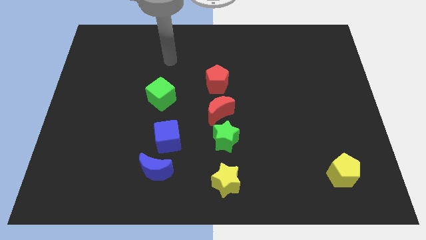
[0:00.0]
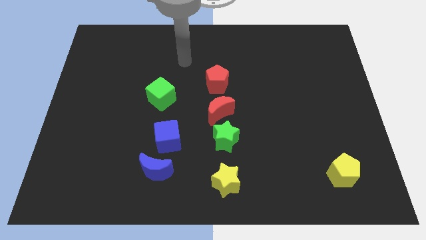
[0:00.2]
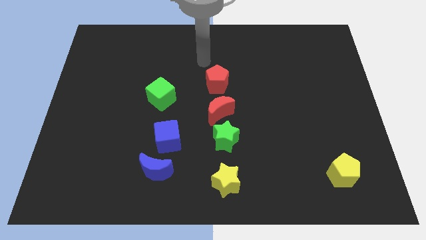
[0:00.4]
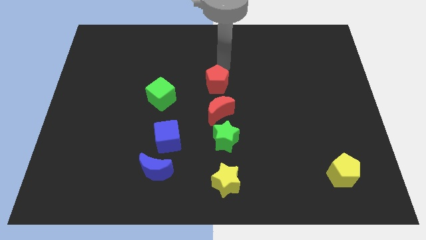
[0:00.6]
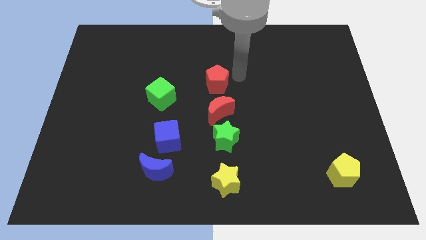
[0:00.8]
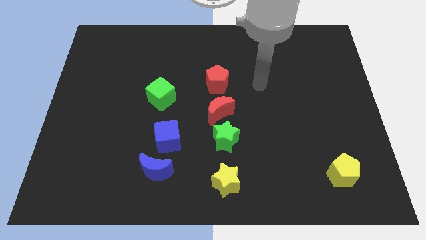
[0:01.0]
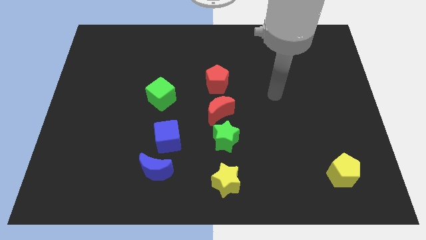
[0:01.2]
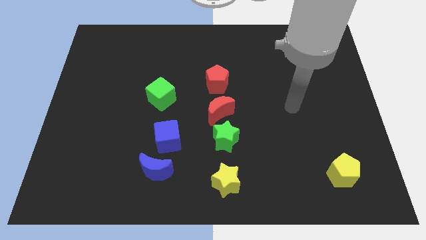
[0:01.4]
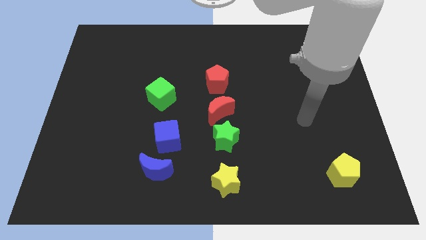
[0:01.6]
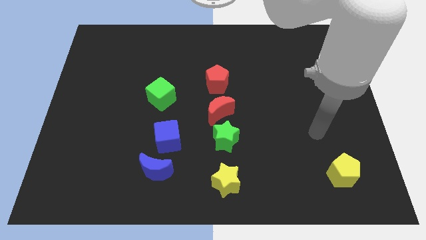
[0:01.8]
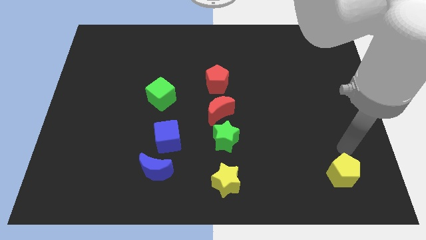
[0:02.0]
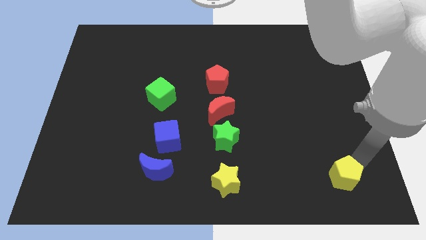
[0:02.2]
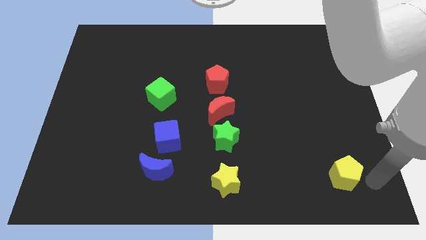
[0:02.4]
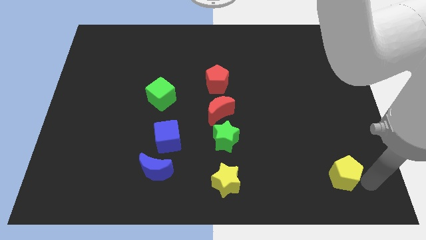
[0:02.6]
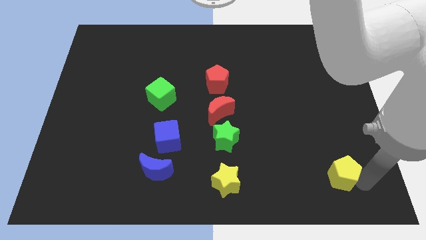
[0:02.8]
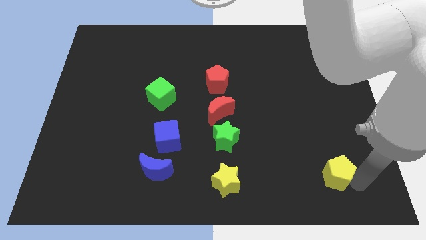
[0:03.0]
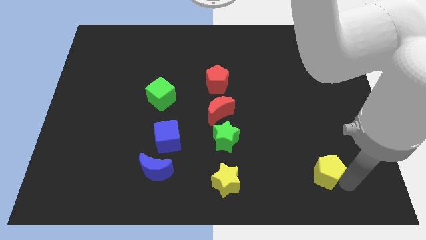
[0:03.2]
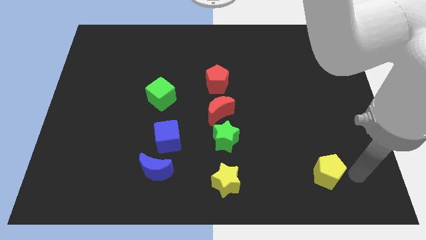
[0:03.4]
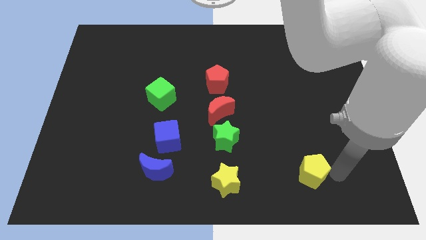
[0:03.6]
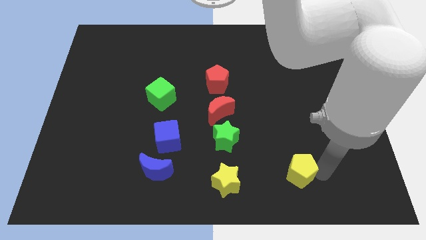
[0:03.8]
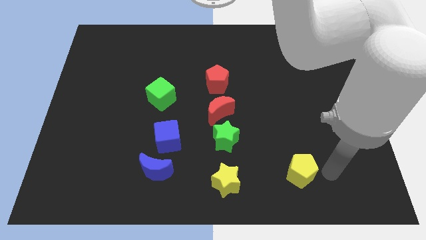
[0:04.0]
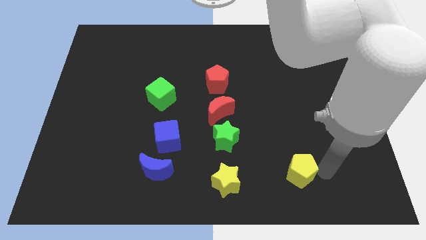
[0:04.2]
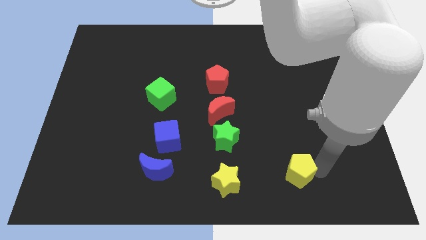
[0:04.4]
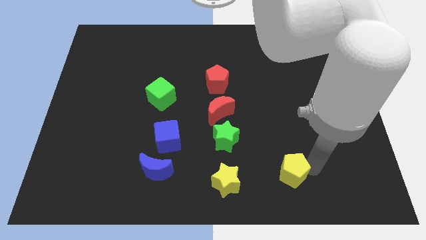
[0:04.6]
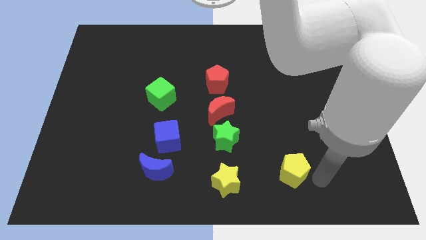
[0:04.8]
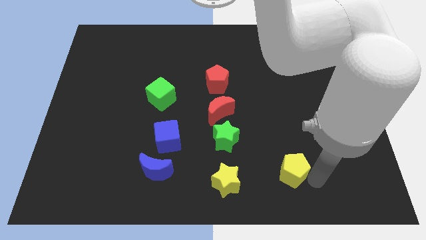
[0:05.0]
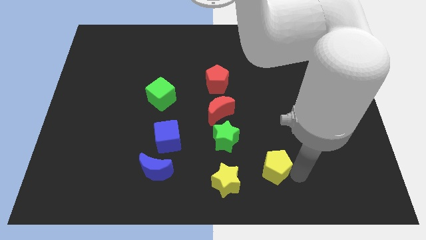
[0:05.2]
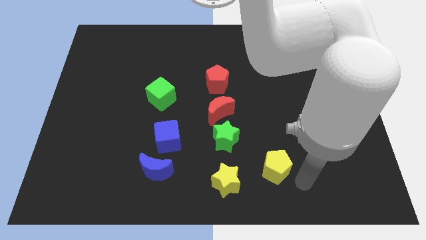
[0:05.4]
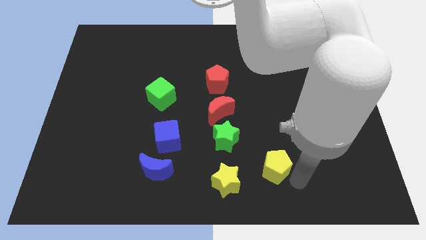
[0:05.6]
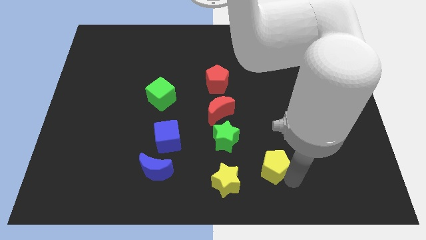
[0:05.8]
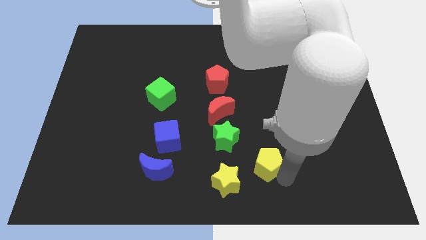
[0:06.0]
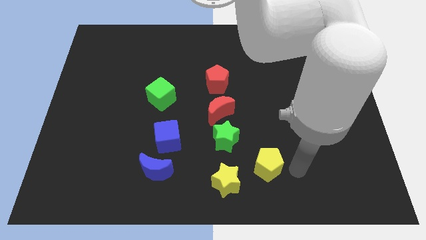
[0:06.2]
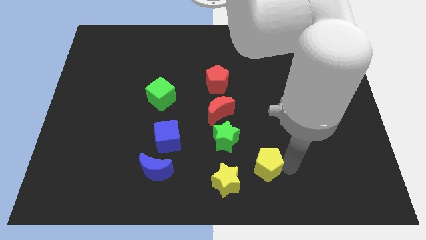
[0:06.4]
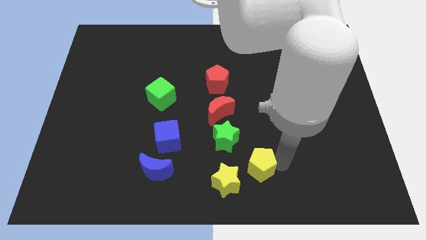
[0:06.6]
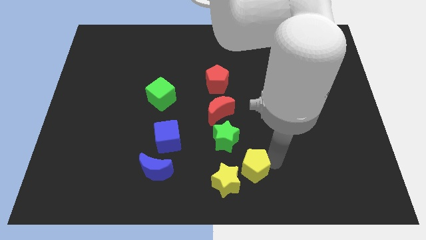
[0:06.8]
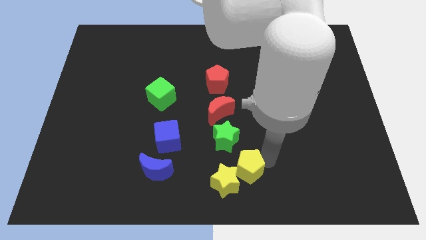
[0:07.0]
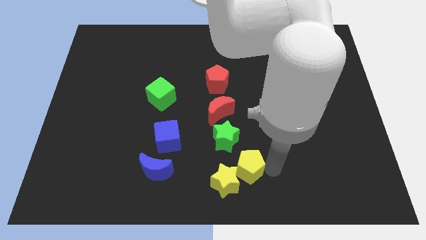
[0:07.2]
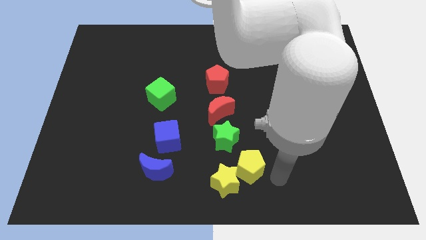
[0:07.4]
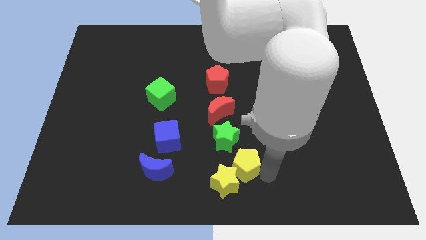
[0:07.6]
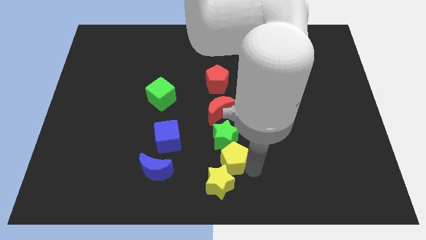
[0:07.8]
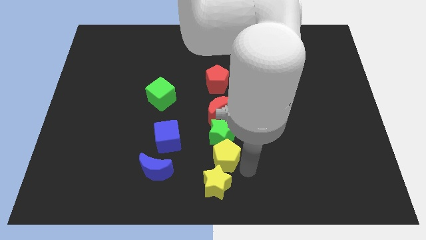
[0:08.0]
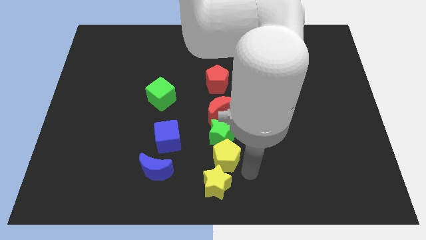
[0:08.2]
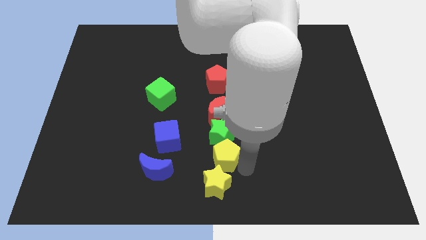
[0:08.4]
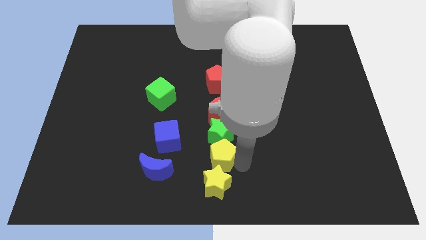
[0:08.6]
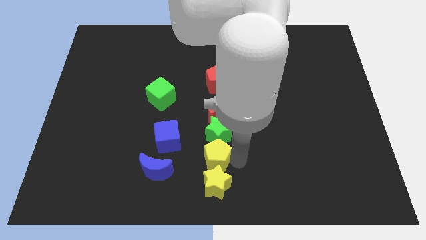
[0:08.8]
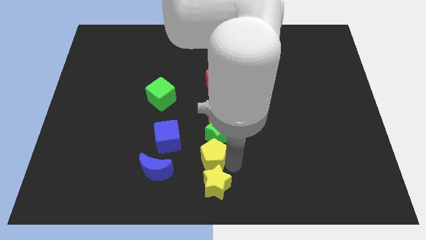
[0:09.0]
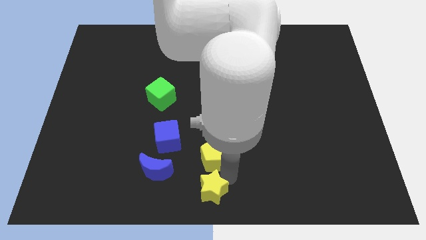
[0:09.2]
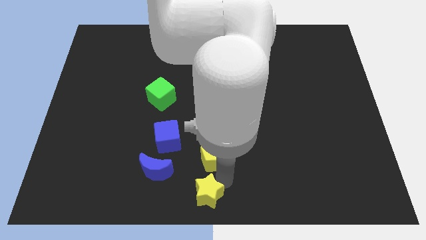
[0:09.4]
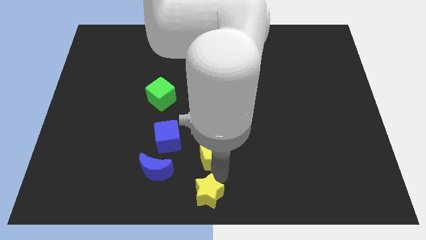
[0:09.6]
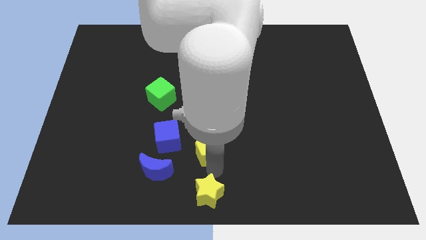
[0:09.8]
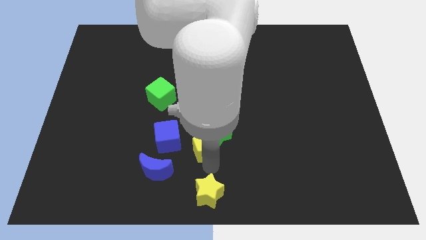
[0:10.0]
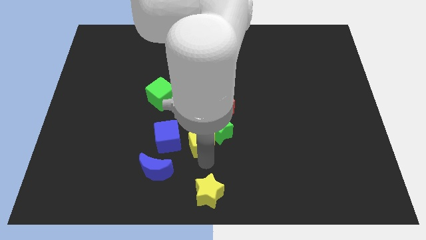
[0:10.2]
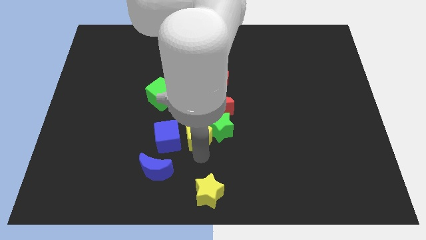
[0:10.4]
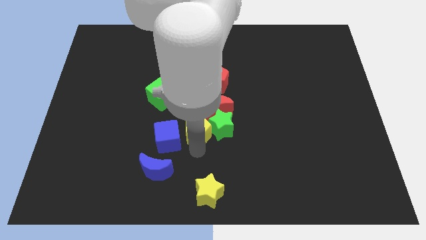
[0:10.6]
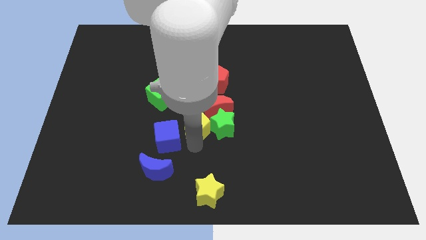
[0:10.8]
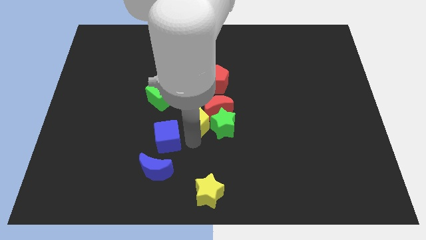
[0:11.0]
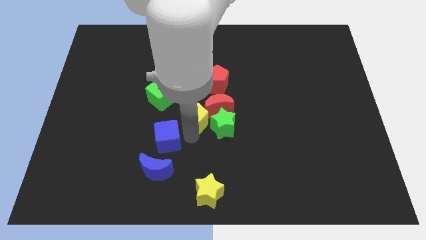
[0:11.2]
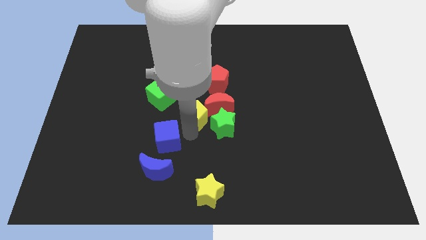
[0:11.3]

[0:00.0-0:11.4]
put the yellow pentagon to the bottom left of the red pentagon
